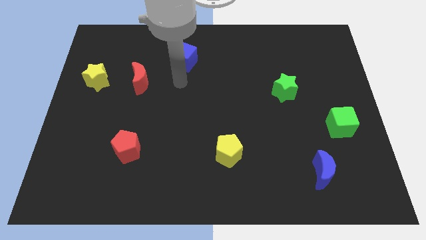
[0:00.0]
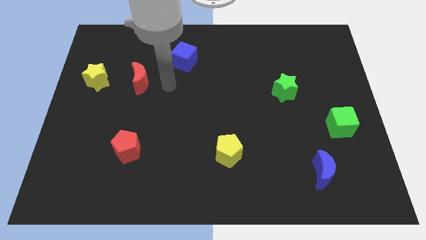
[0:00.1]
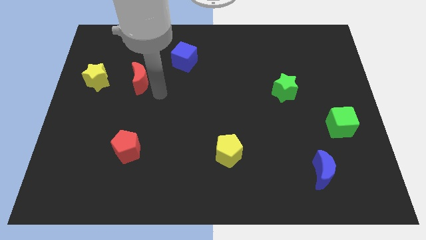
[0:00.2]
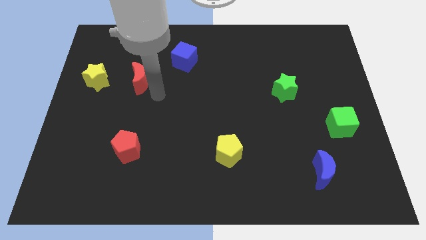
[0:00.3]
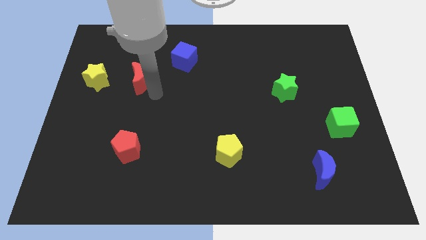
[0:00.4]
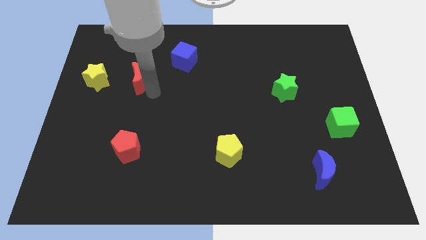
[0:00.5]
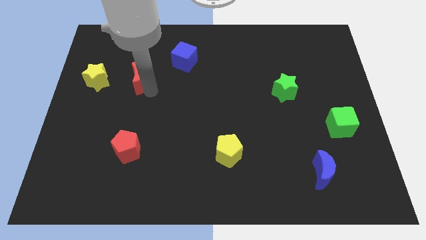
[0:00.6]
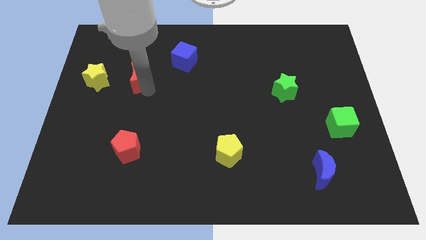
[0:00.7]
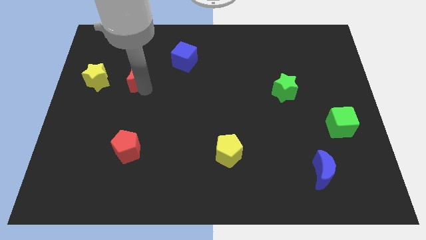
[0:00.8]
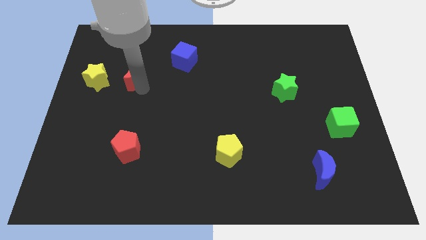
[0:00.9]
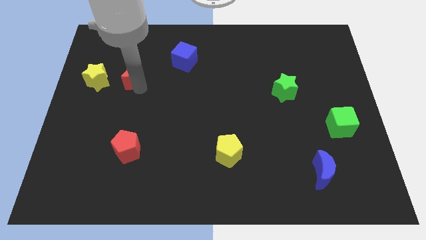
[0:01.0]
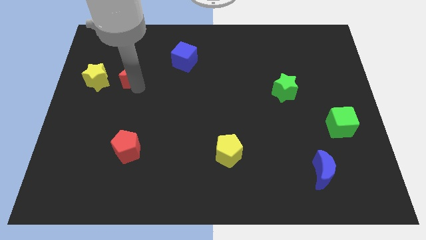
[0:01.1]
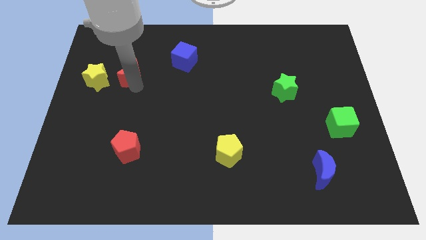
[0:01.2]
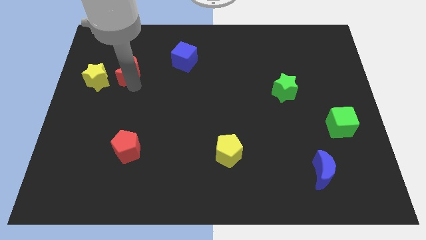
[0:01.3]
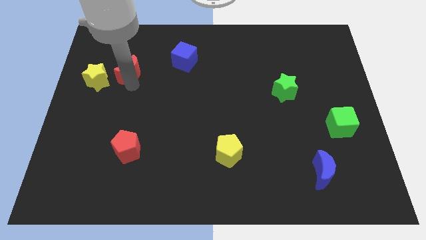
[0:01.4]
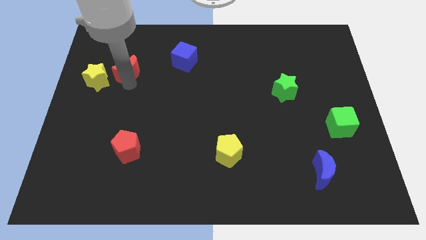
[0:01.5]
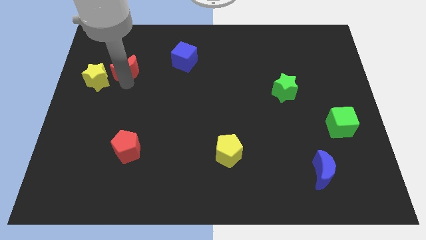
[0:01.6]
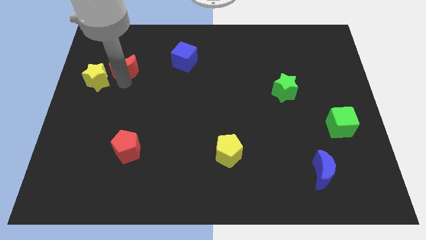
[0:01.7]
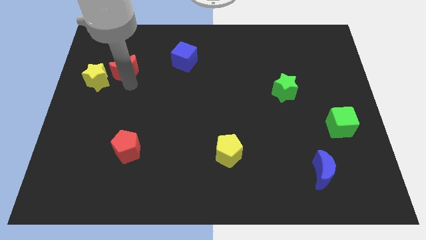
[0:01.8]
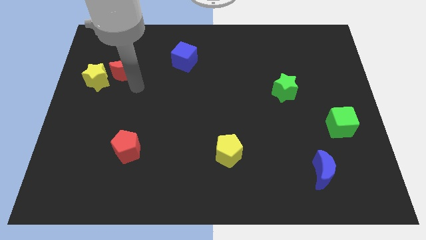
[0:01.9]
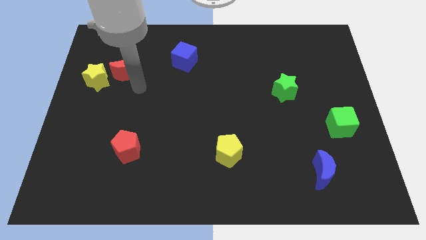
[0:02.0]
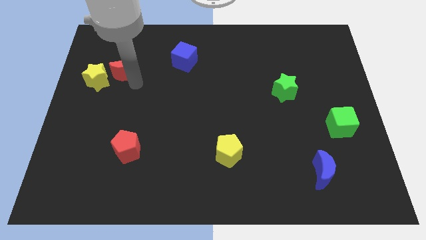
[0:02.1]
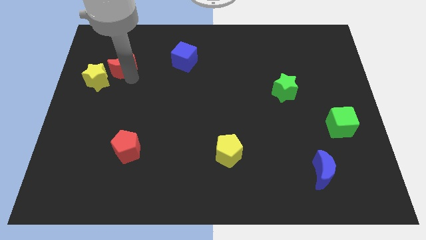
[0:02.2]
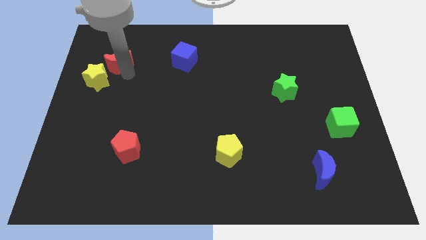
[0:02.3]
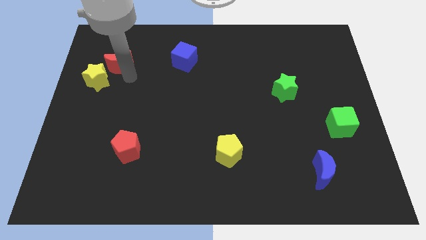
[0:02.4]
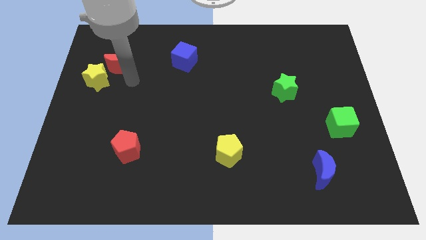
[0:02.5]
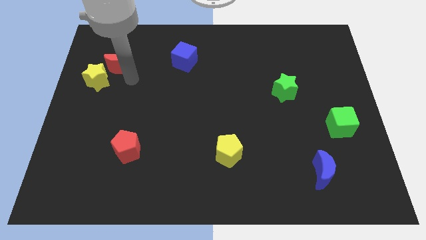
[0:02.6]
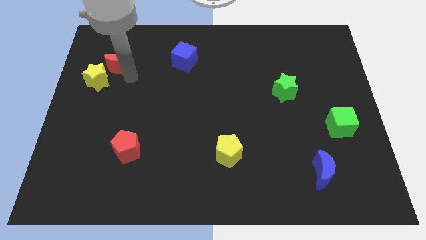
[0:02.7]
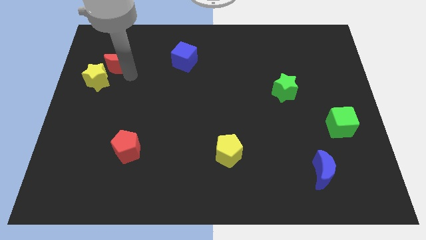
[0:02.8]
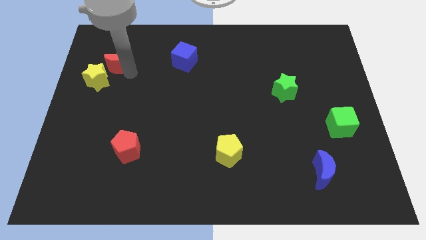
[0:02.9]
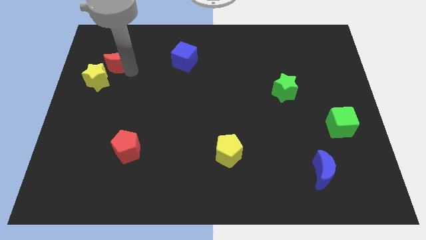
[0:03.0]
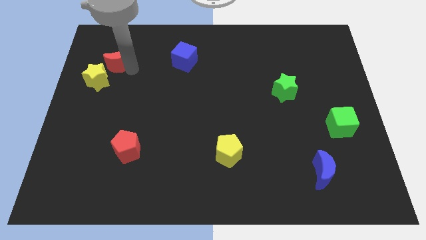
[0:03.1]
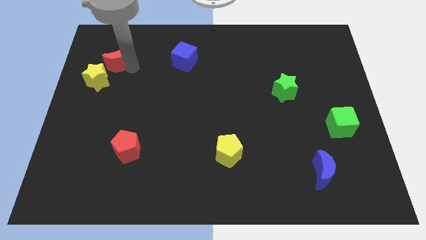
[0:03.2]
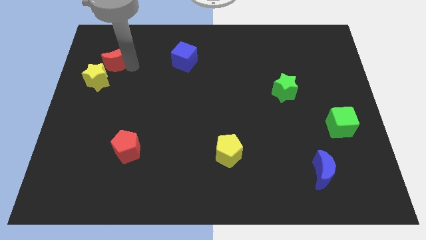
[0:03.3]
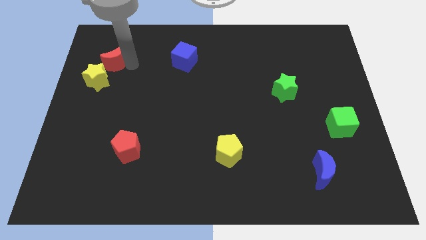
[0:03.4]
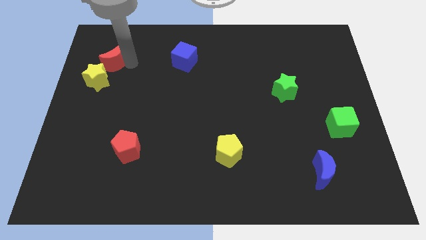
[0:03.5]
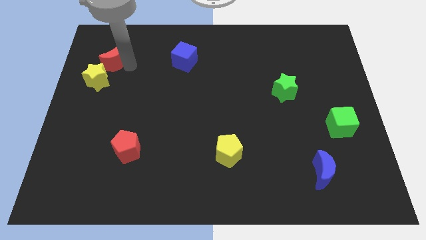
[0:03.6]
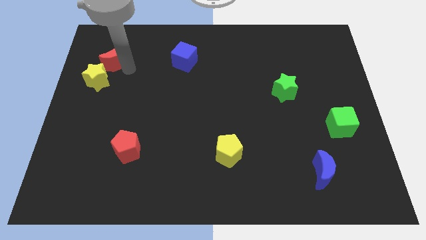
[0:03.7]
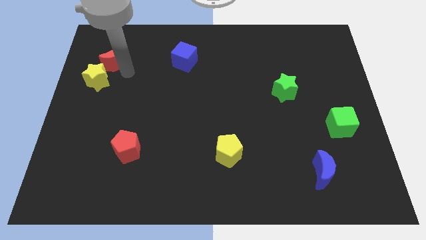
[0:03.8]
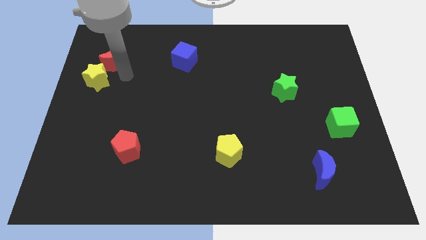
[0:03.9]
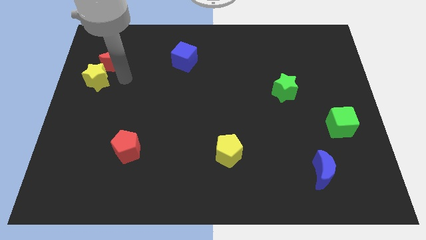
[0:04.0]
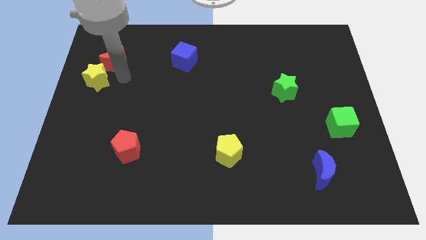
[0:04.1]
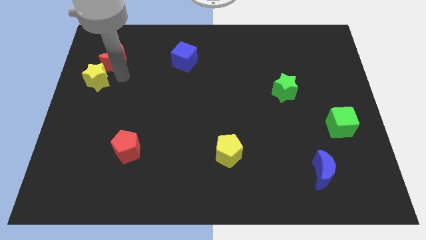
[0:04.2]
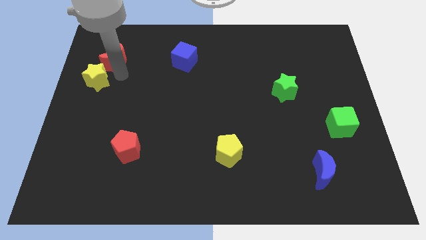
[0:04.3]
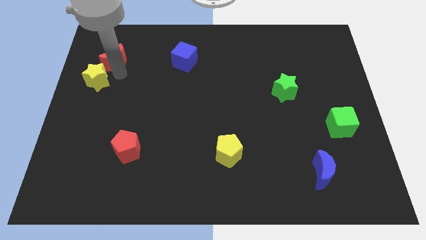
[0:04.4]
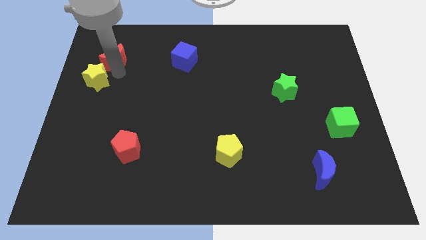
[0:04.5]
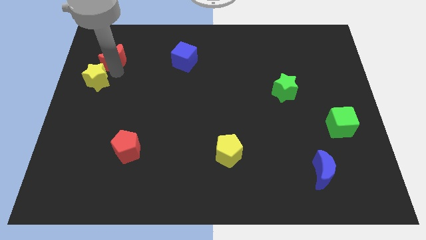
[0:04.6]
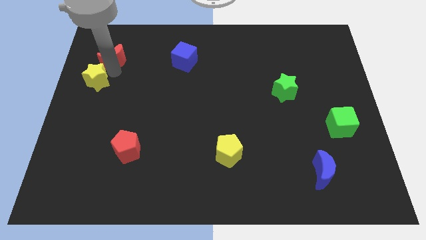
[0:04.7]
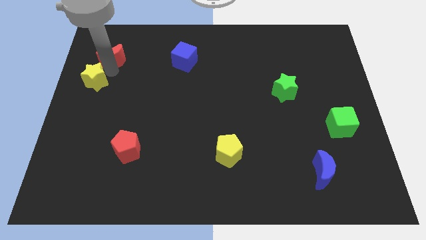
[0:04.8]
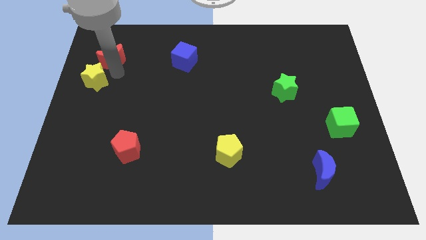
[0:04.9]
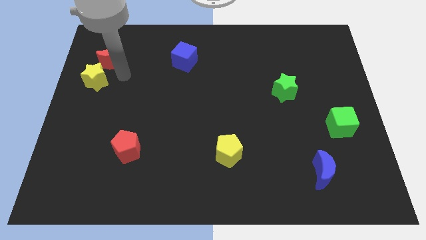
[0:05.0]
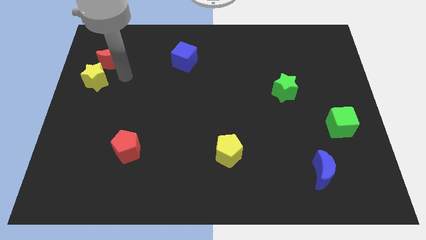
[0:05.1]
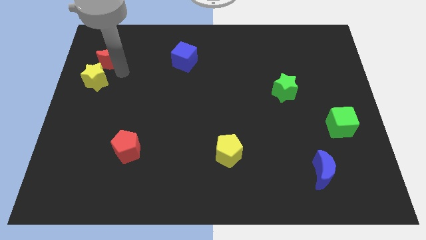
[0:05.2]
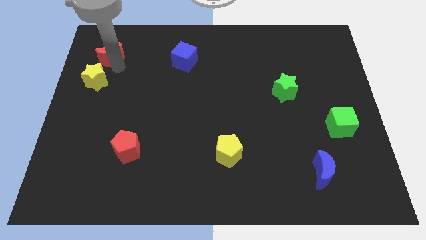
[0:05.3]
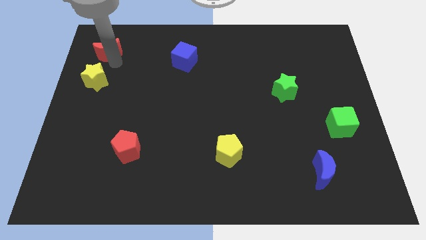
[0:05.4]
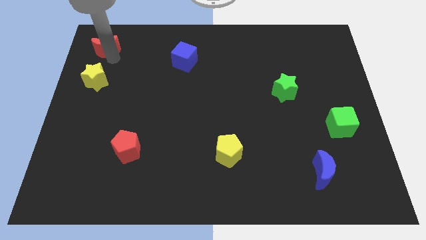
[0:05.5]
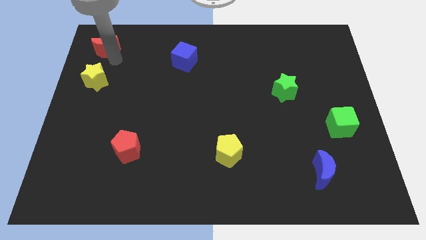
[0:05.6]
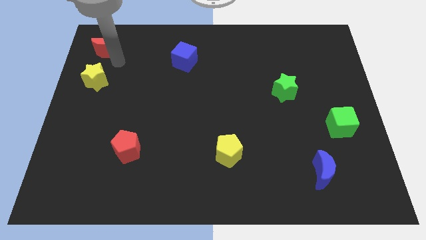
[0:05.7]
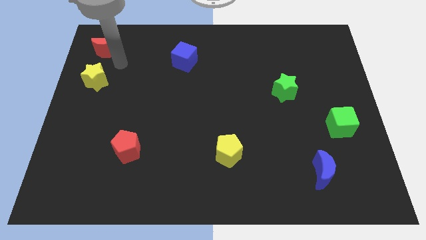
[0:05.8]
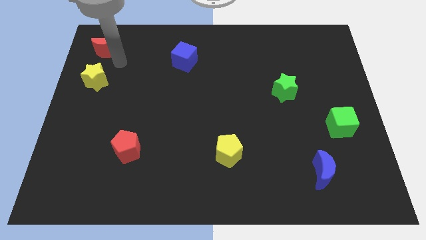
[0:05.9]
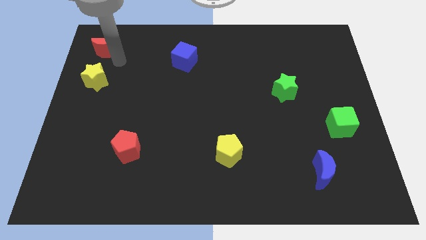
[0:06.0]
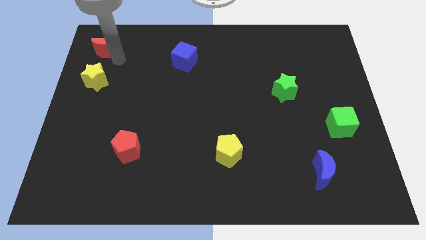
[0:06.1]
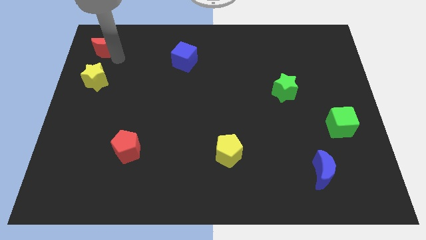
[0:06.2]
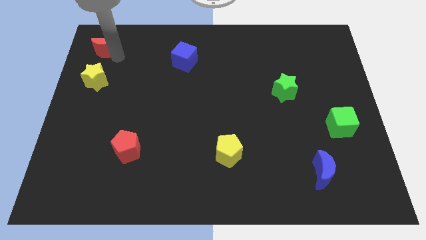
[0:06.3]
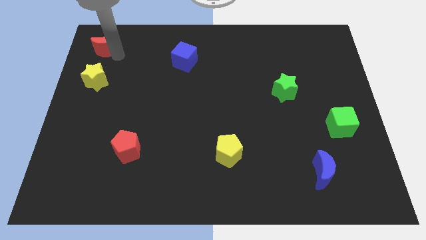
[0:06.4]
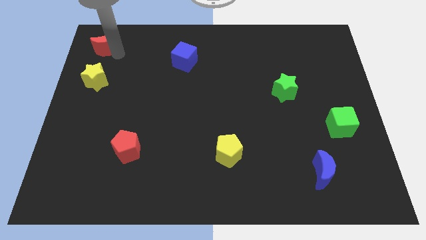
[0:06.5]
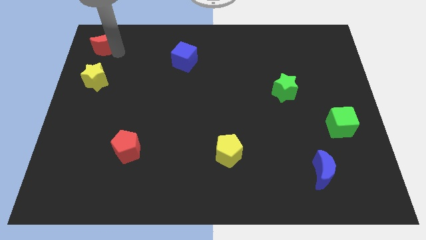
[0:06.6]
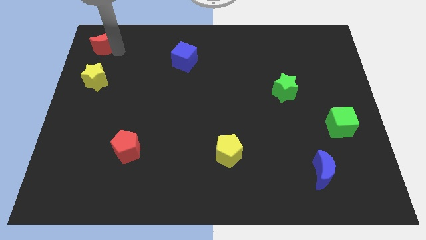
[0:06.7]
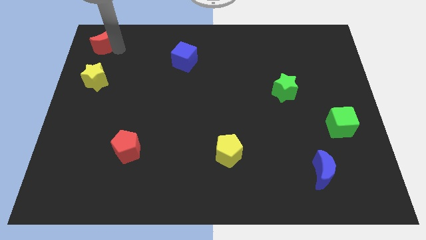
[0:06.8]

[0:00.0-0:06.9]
move the red moon to the top left of the board
